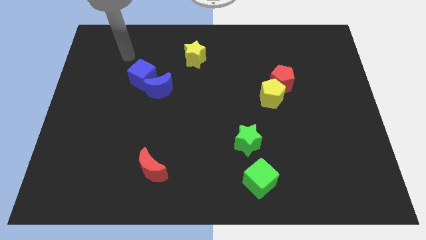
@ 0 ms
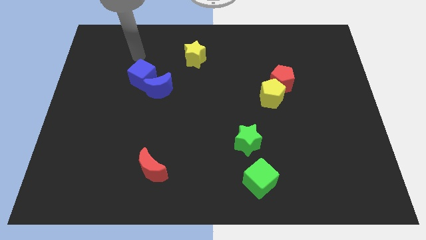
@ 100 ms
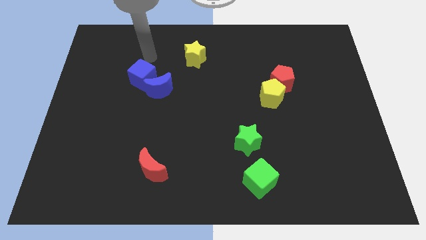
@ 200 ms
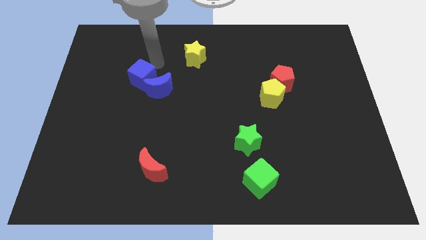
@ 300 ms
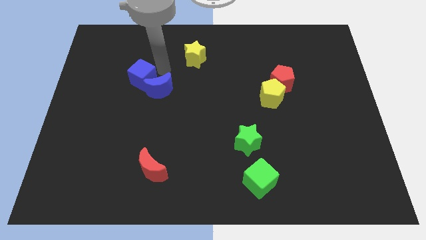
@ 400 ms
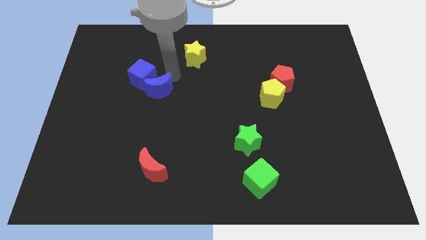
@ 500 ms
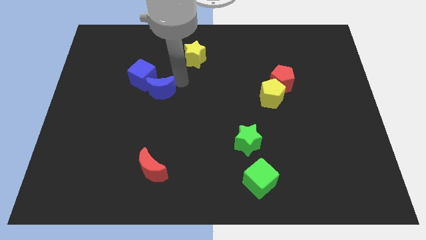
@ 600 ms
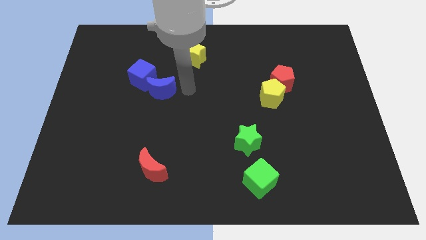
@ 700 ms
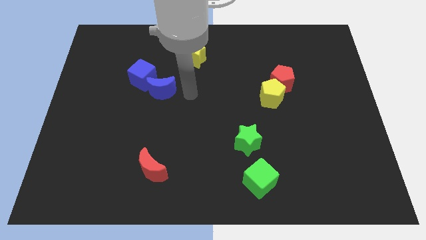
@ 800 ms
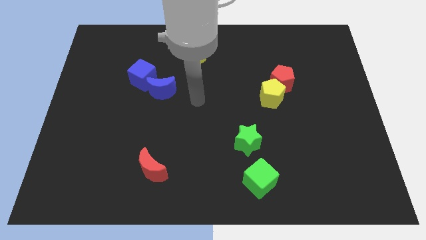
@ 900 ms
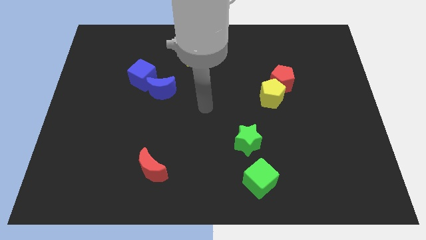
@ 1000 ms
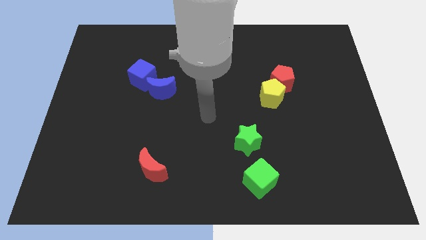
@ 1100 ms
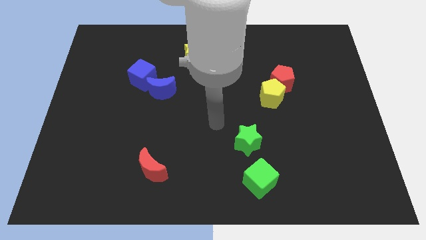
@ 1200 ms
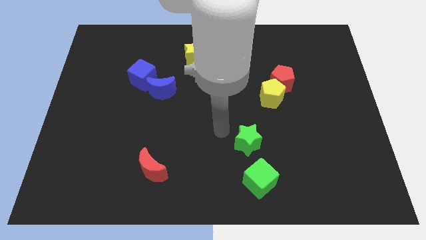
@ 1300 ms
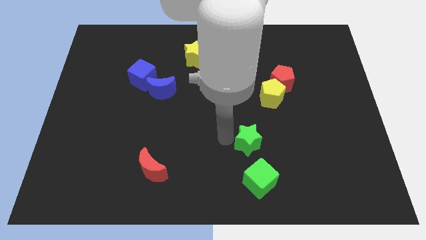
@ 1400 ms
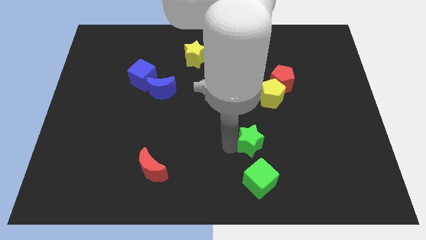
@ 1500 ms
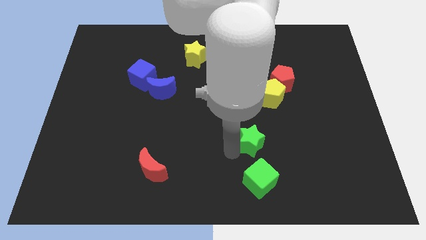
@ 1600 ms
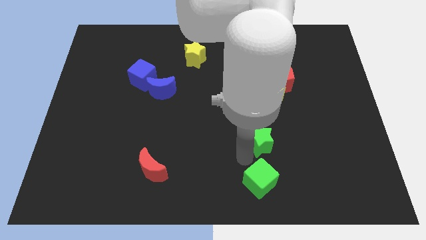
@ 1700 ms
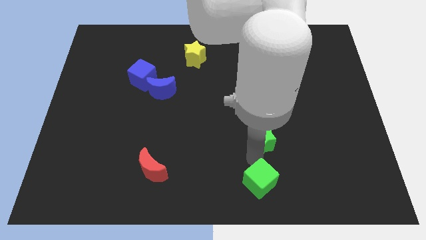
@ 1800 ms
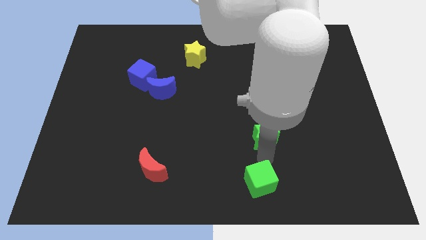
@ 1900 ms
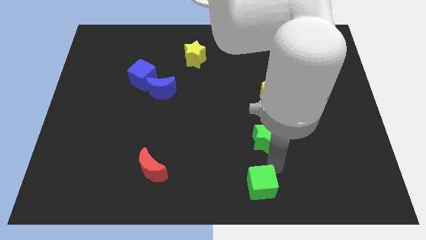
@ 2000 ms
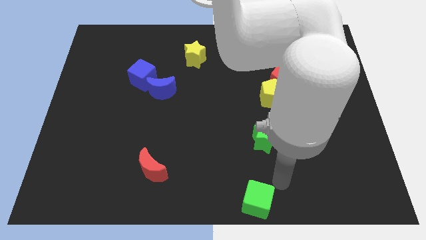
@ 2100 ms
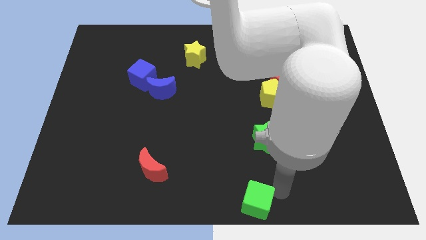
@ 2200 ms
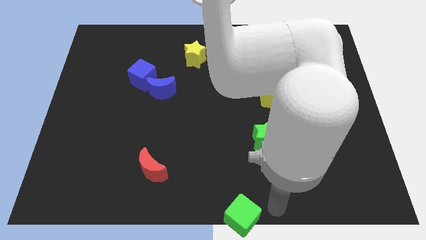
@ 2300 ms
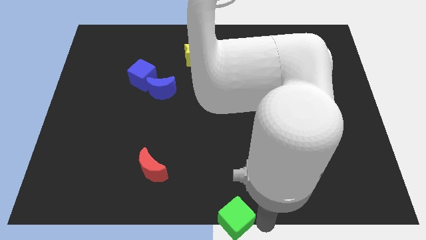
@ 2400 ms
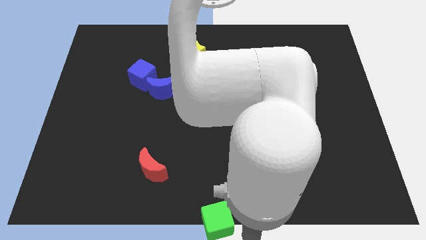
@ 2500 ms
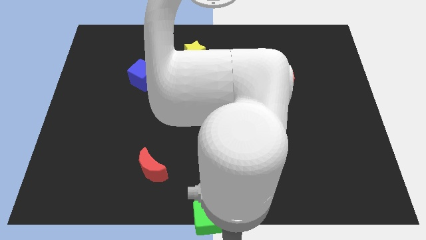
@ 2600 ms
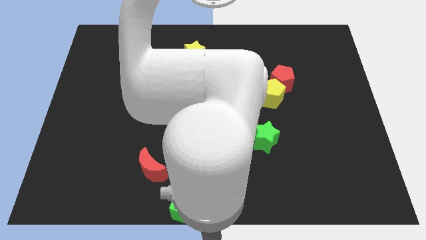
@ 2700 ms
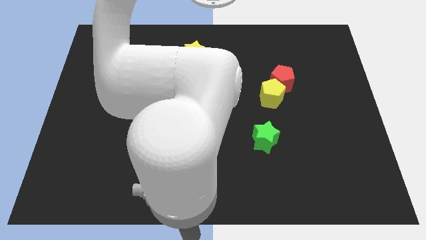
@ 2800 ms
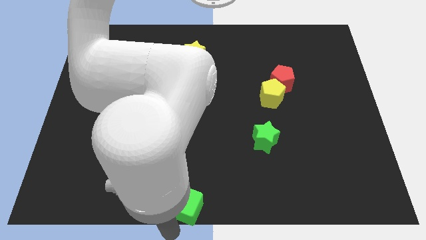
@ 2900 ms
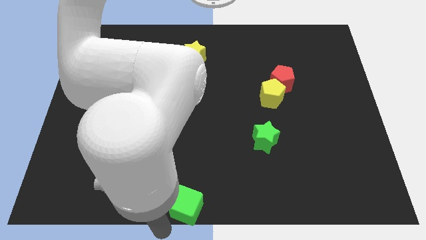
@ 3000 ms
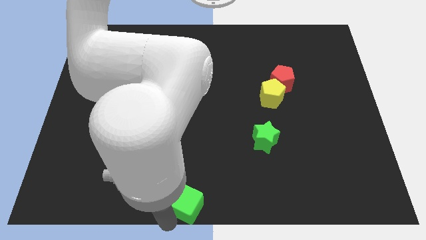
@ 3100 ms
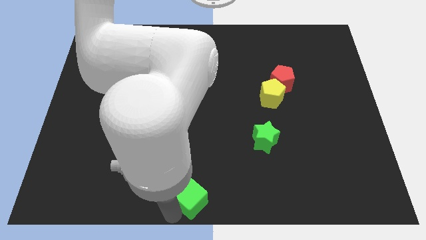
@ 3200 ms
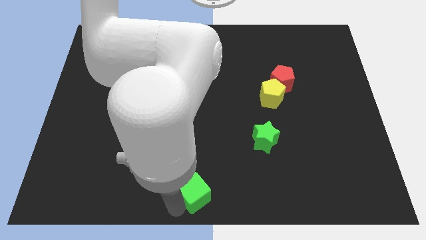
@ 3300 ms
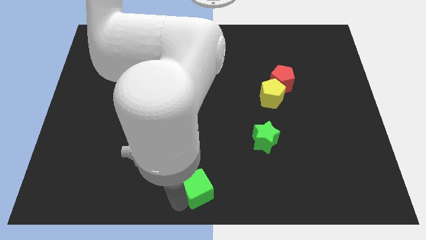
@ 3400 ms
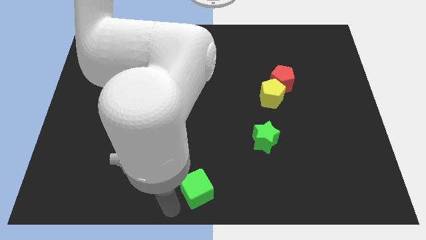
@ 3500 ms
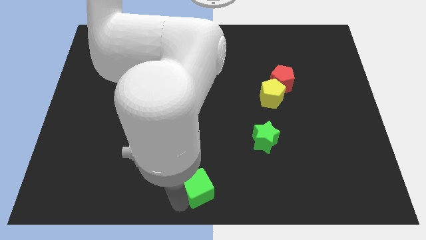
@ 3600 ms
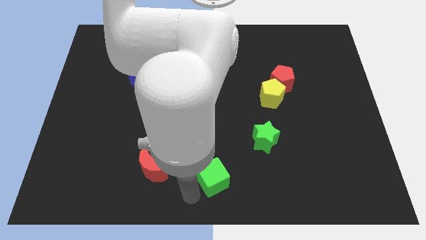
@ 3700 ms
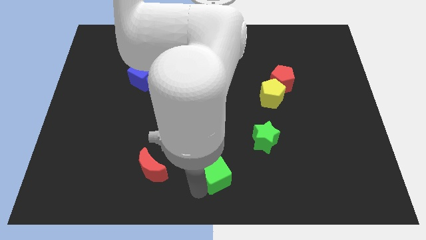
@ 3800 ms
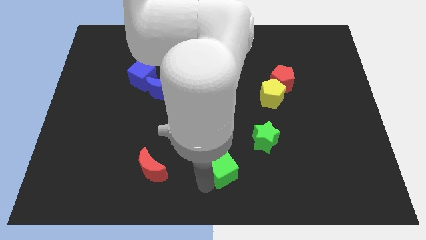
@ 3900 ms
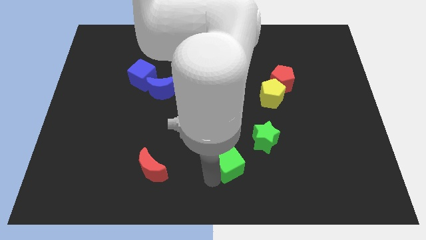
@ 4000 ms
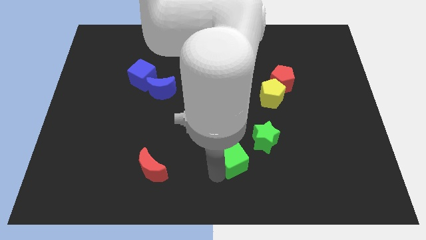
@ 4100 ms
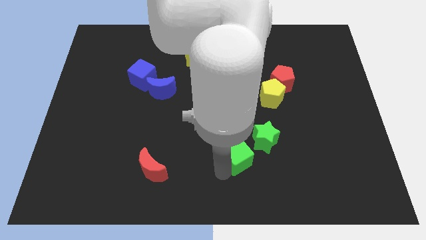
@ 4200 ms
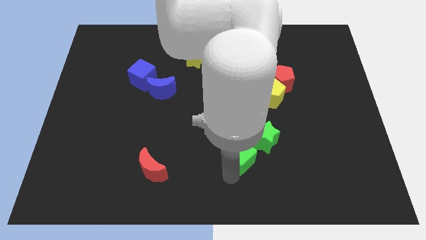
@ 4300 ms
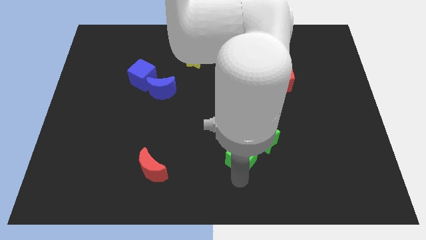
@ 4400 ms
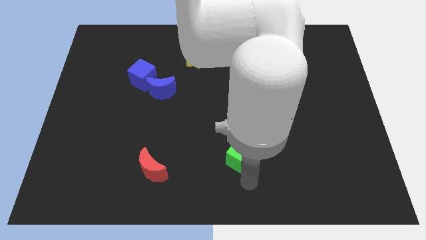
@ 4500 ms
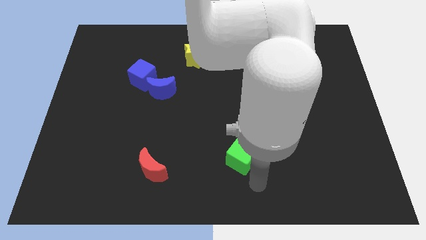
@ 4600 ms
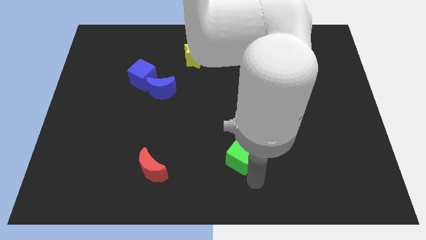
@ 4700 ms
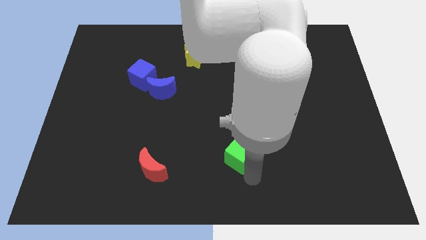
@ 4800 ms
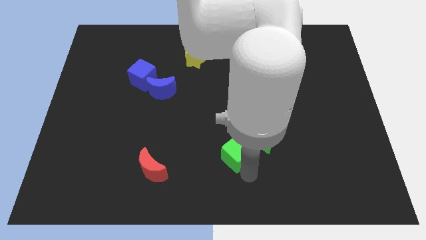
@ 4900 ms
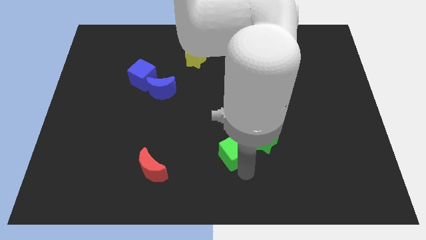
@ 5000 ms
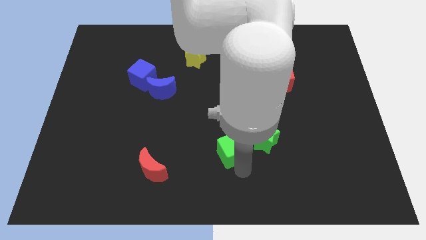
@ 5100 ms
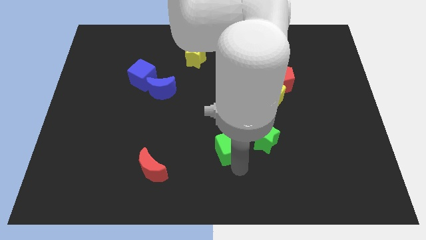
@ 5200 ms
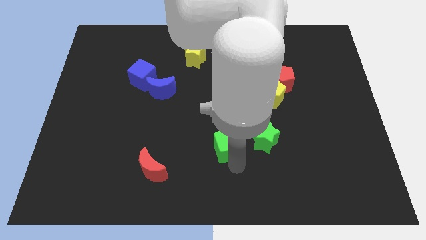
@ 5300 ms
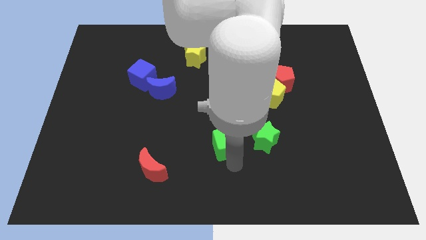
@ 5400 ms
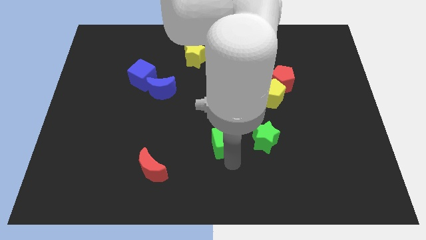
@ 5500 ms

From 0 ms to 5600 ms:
slide the green cube to the center
